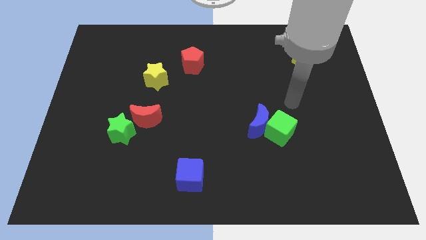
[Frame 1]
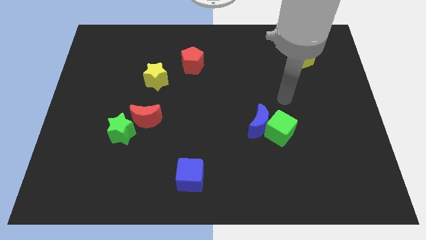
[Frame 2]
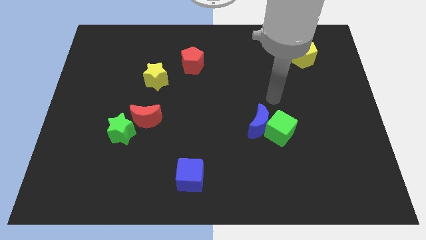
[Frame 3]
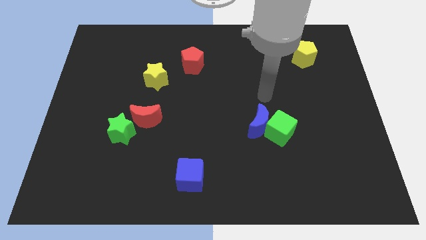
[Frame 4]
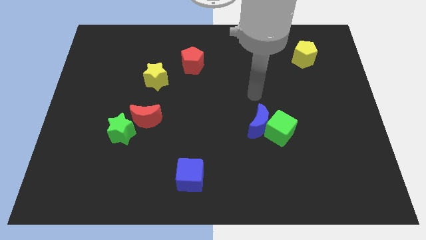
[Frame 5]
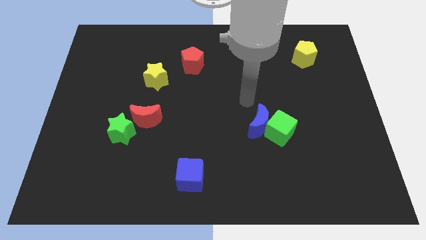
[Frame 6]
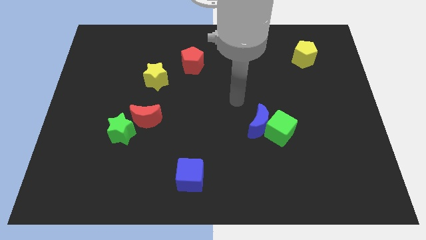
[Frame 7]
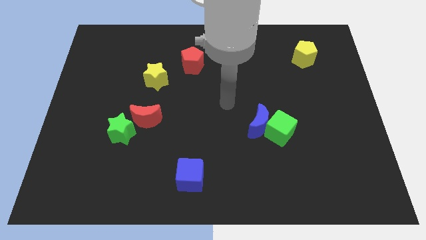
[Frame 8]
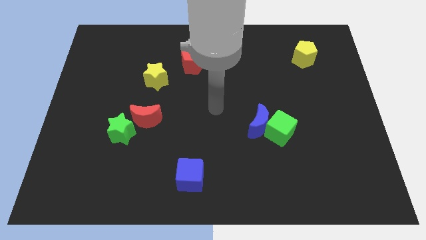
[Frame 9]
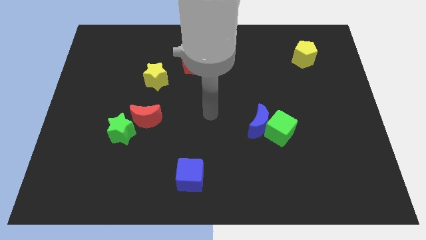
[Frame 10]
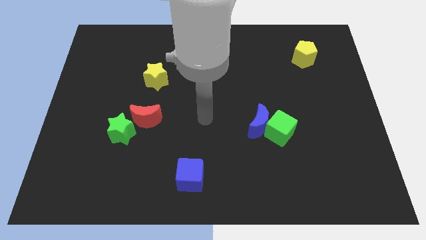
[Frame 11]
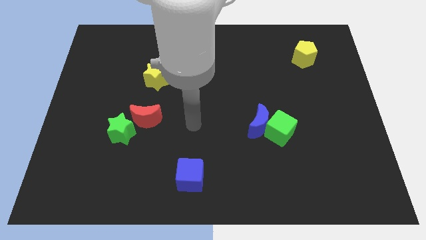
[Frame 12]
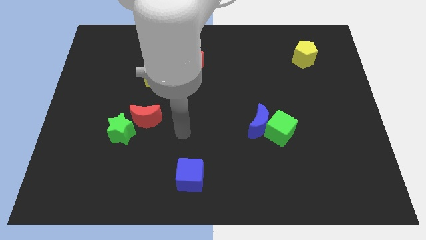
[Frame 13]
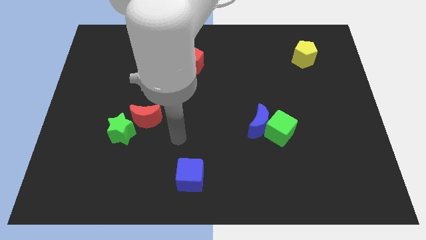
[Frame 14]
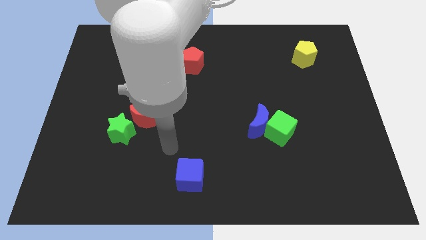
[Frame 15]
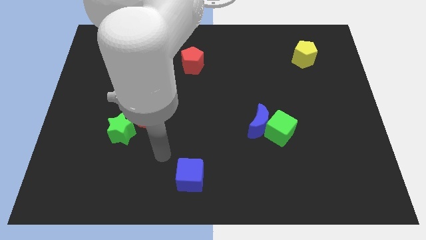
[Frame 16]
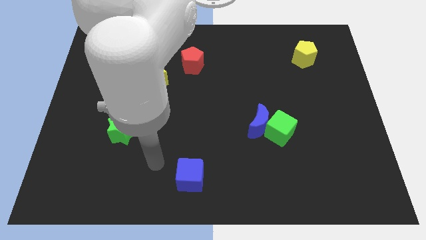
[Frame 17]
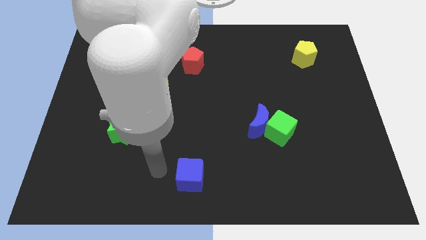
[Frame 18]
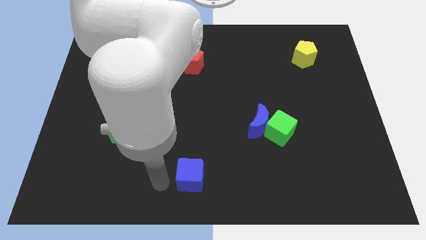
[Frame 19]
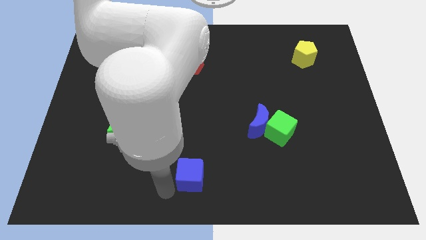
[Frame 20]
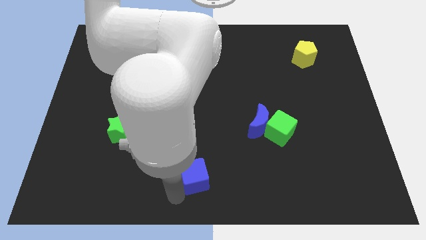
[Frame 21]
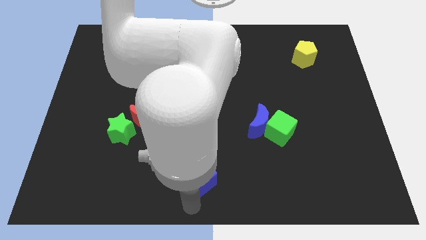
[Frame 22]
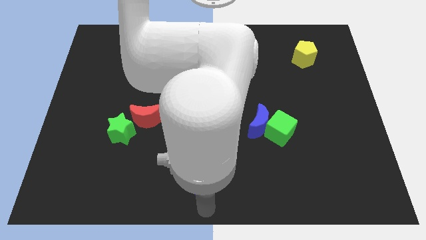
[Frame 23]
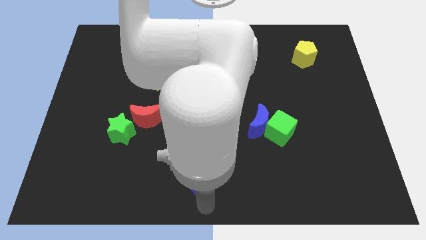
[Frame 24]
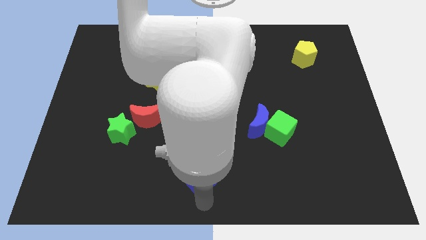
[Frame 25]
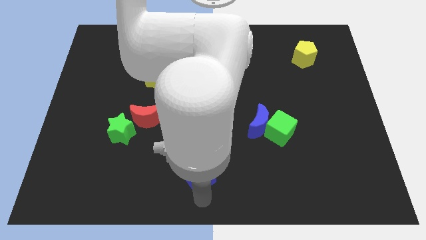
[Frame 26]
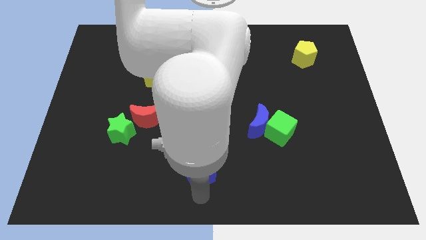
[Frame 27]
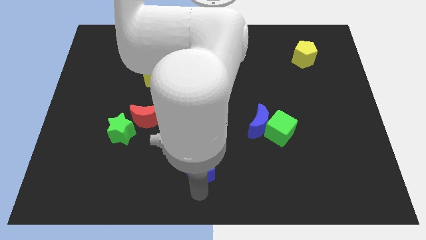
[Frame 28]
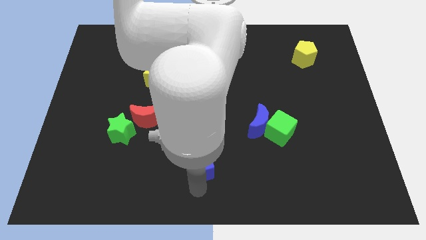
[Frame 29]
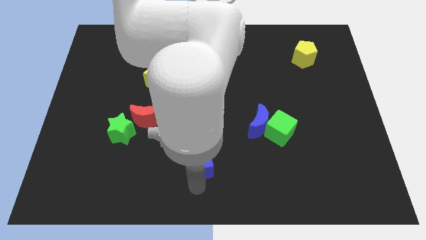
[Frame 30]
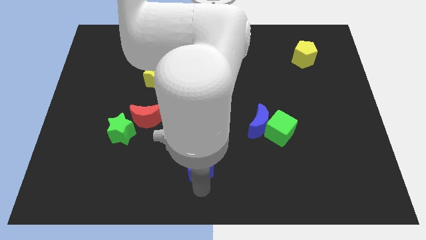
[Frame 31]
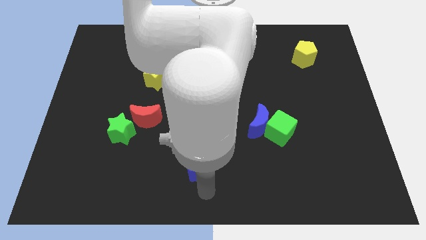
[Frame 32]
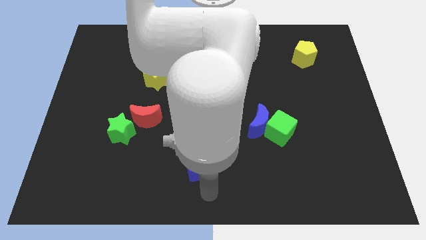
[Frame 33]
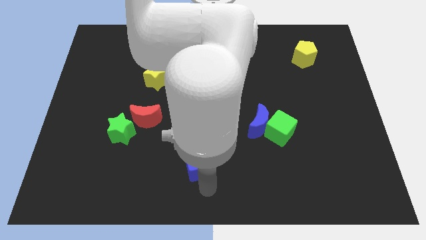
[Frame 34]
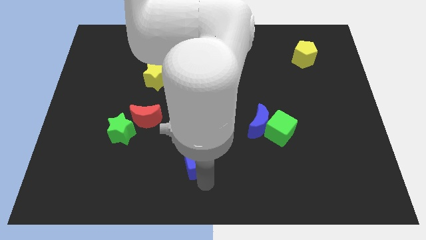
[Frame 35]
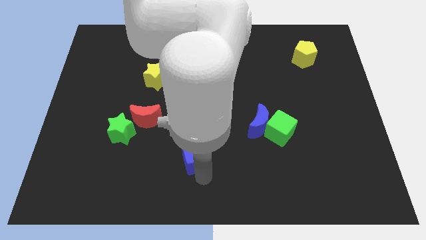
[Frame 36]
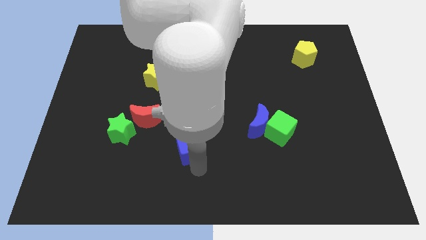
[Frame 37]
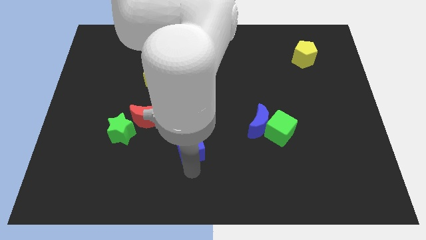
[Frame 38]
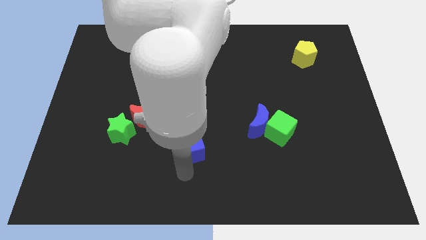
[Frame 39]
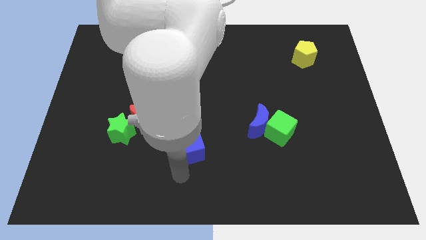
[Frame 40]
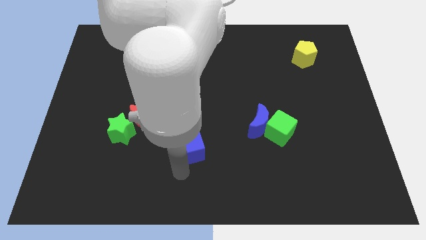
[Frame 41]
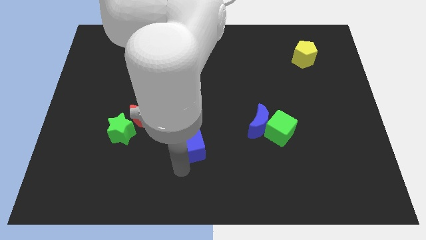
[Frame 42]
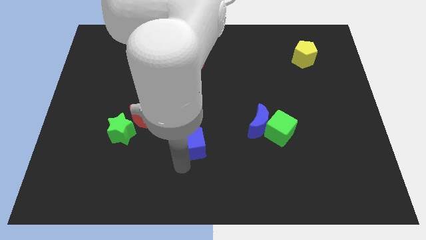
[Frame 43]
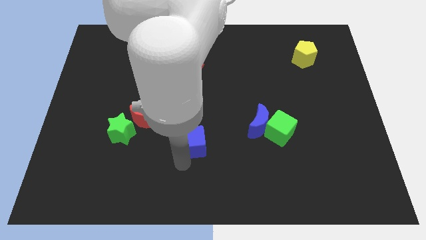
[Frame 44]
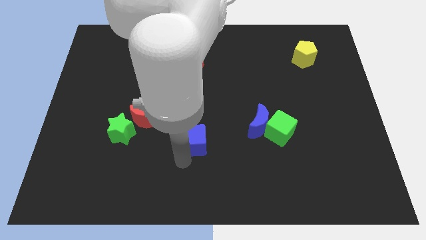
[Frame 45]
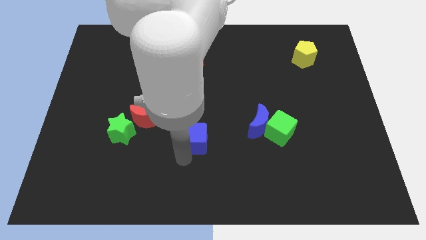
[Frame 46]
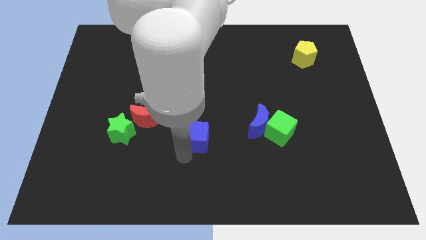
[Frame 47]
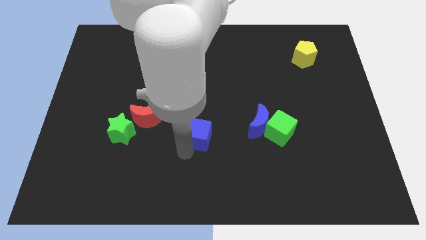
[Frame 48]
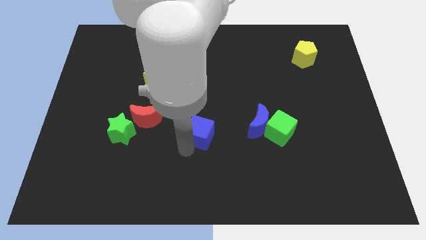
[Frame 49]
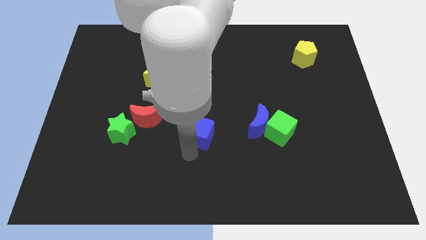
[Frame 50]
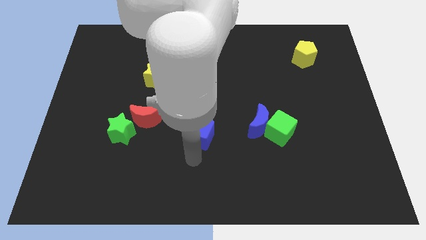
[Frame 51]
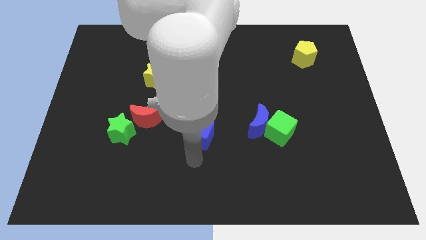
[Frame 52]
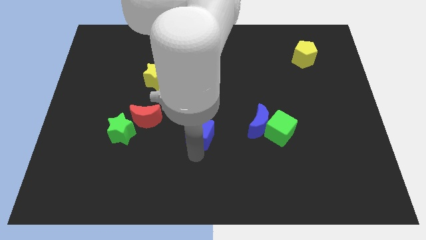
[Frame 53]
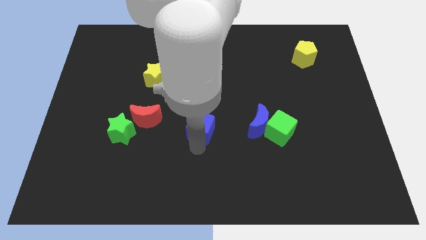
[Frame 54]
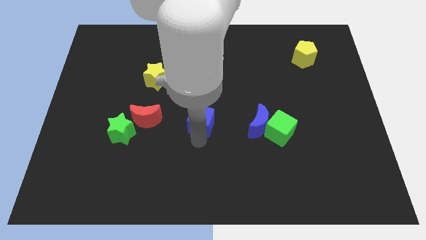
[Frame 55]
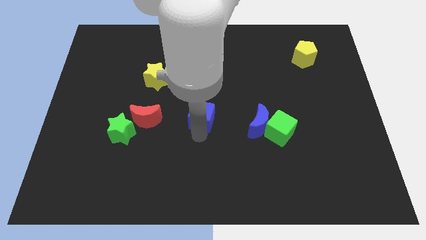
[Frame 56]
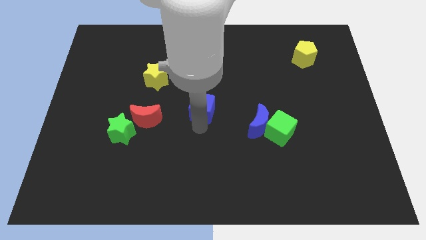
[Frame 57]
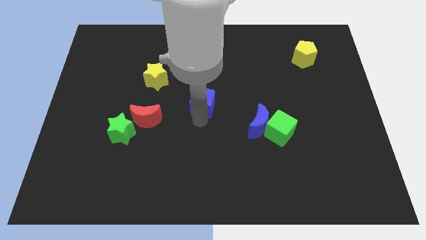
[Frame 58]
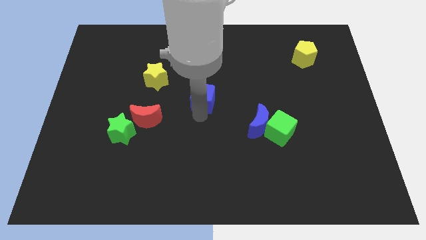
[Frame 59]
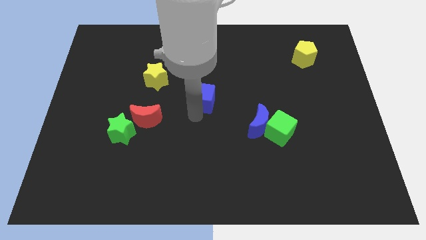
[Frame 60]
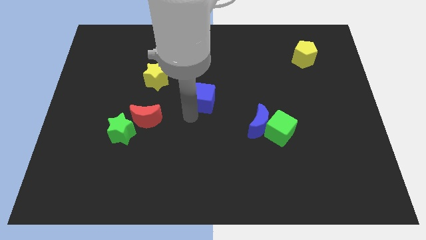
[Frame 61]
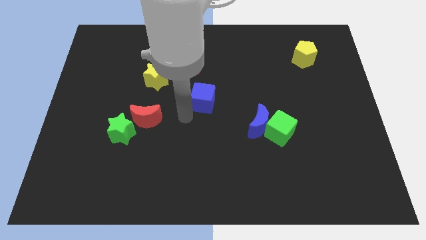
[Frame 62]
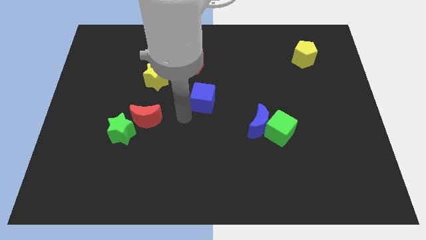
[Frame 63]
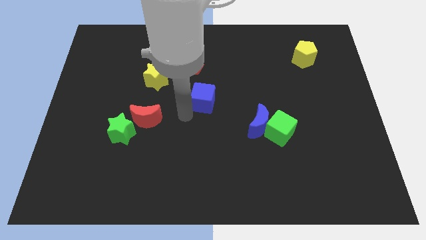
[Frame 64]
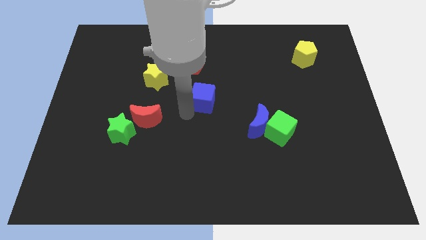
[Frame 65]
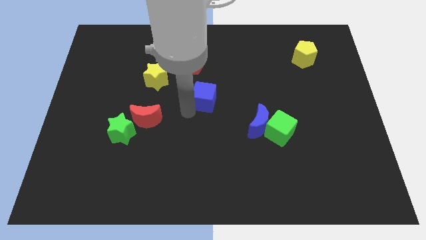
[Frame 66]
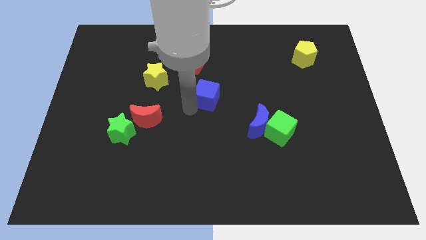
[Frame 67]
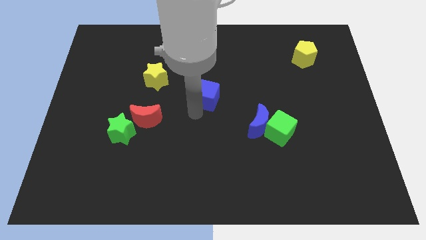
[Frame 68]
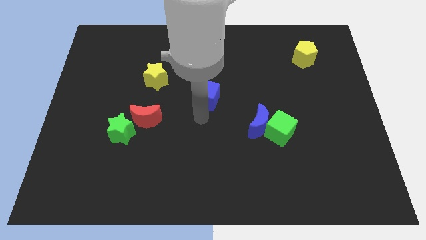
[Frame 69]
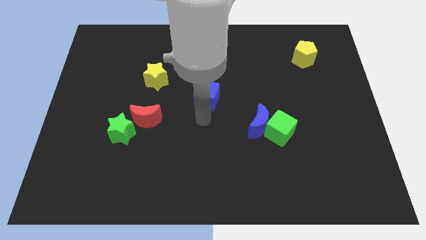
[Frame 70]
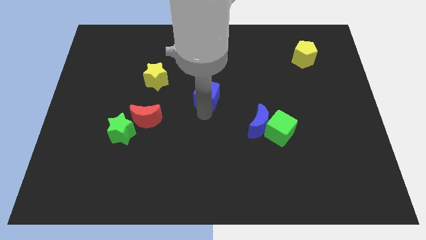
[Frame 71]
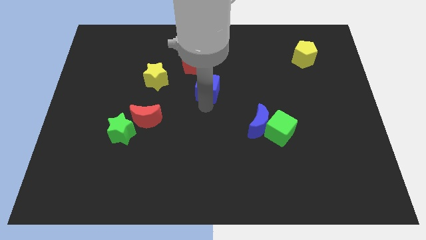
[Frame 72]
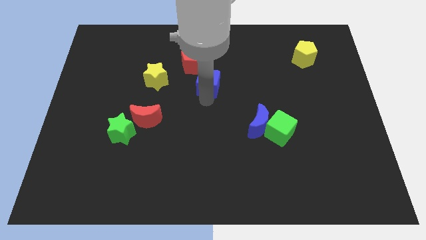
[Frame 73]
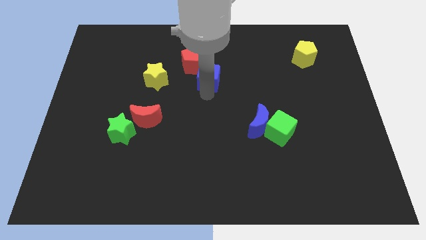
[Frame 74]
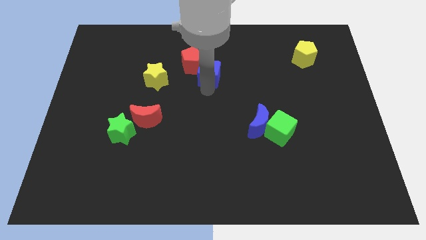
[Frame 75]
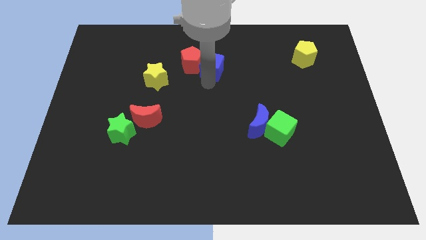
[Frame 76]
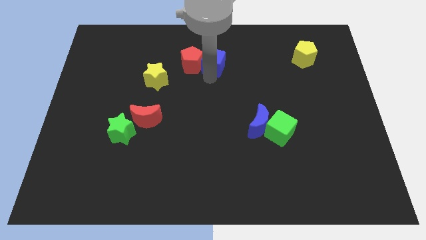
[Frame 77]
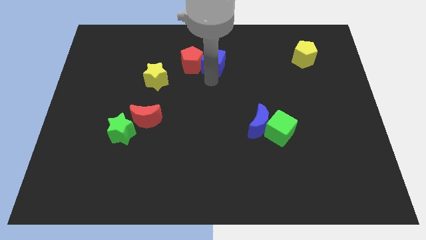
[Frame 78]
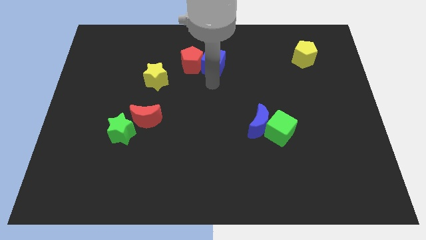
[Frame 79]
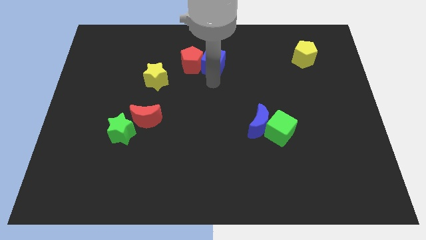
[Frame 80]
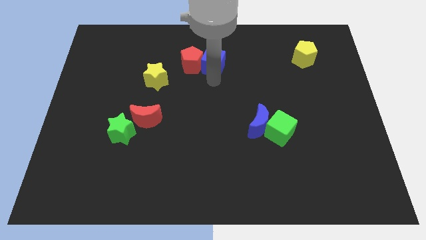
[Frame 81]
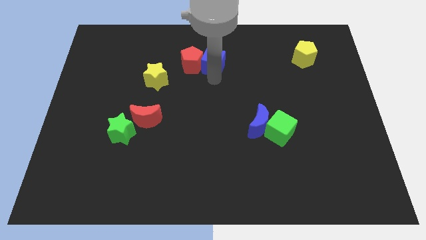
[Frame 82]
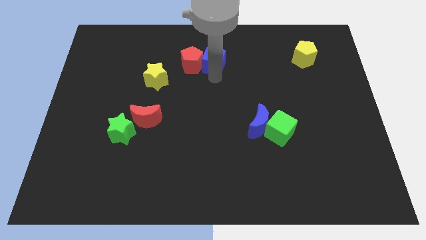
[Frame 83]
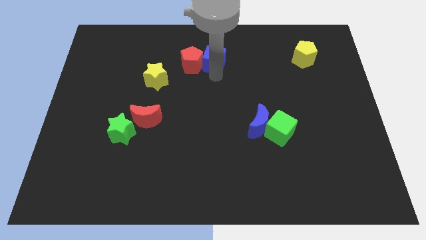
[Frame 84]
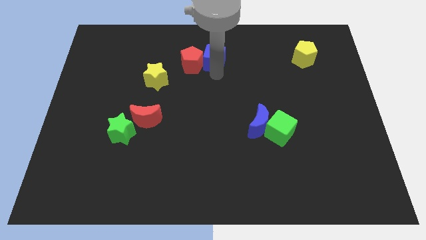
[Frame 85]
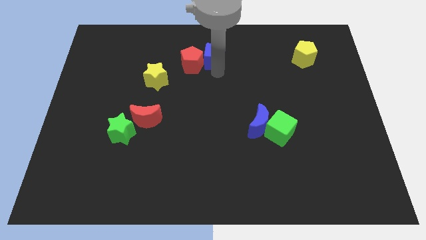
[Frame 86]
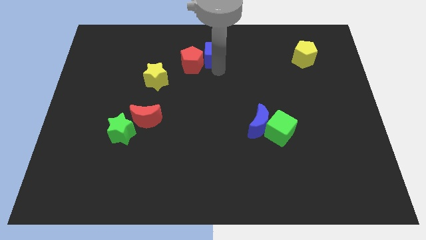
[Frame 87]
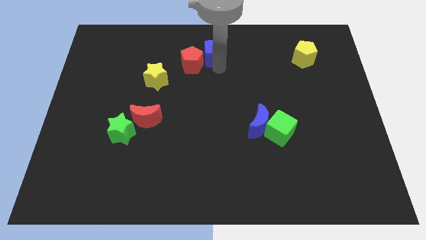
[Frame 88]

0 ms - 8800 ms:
move the blue cube to the top
